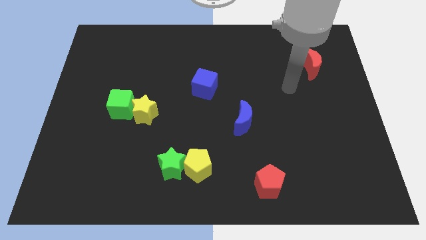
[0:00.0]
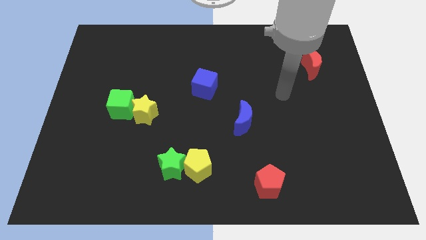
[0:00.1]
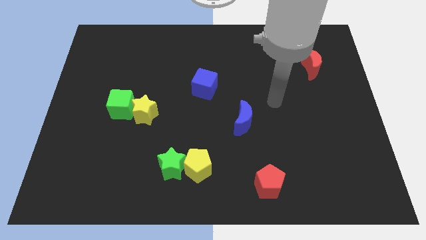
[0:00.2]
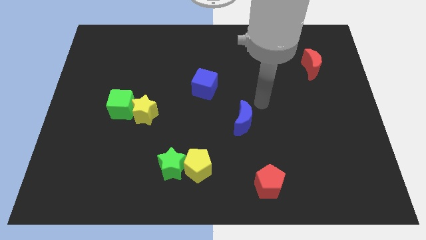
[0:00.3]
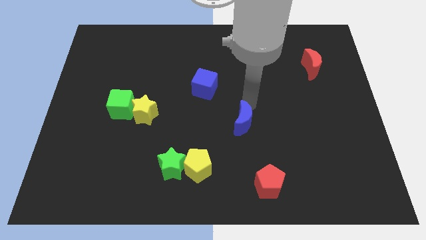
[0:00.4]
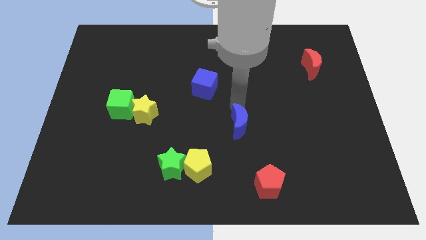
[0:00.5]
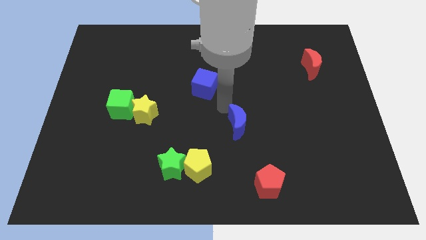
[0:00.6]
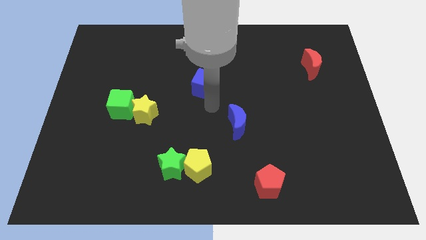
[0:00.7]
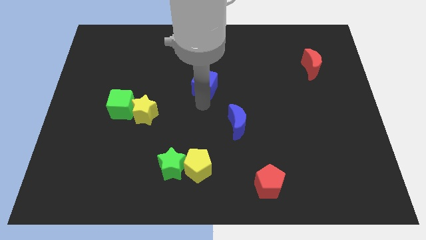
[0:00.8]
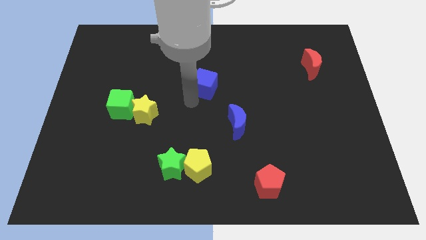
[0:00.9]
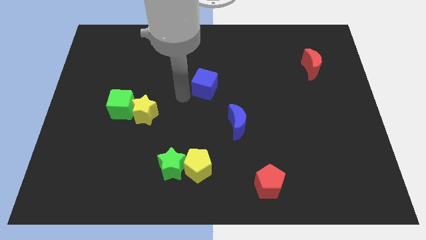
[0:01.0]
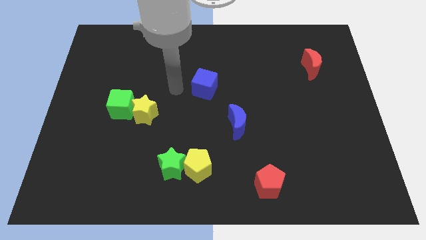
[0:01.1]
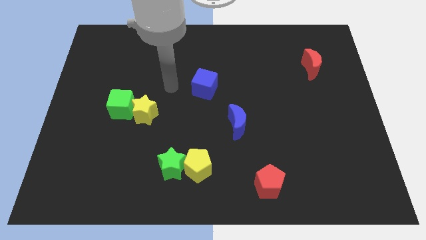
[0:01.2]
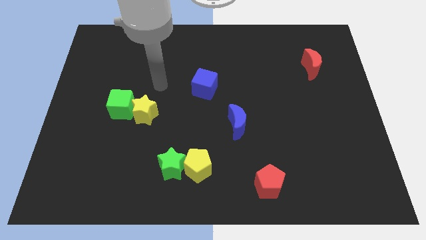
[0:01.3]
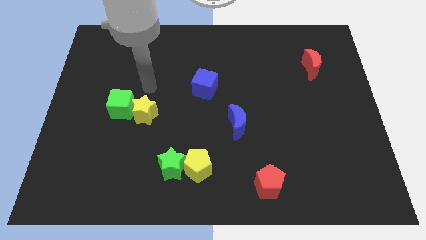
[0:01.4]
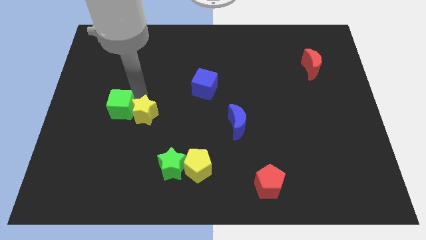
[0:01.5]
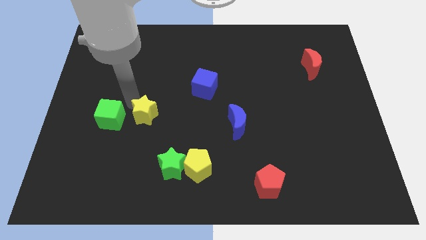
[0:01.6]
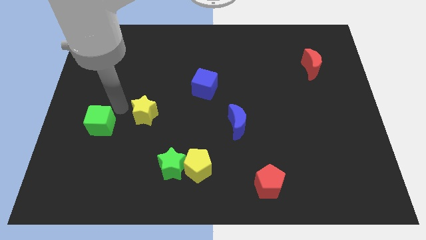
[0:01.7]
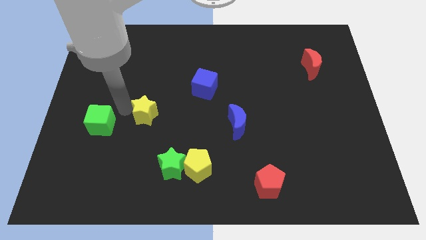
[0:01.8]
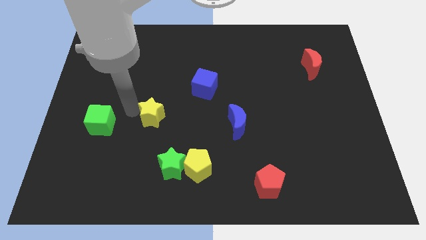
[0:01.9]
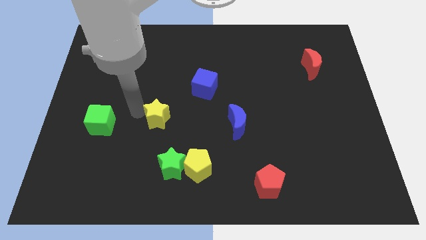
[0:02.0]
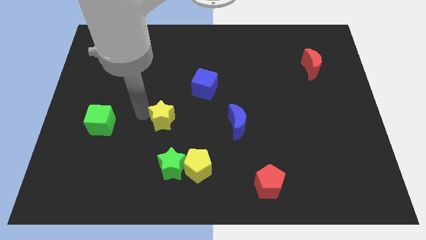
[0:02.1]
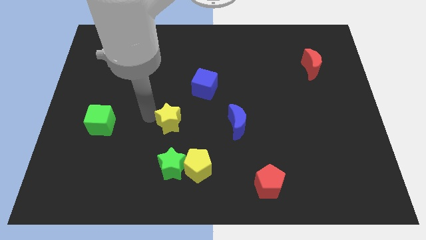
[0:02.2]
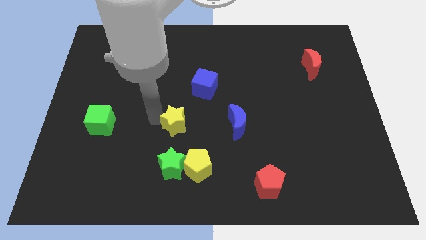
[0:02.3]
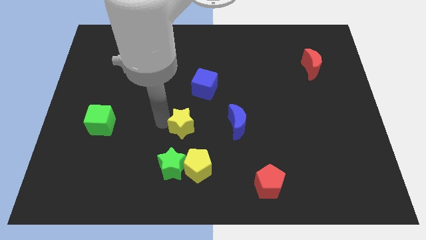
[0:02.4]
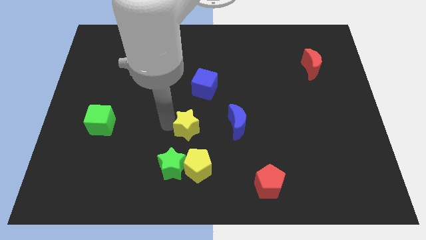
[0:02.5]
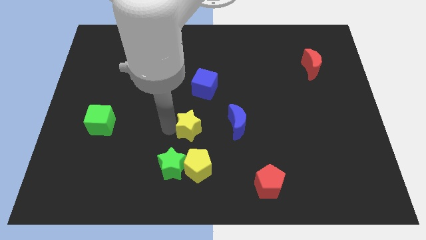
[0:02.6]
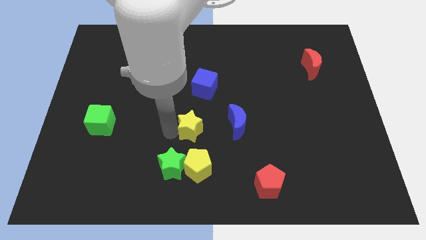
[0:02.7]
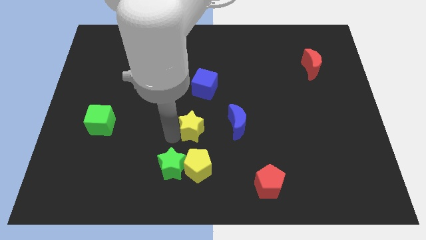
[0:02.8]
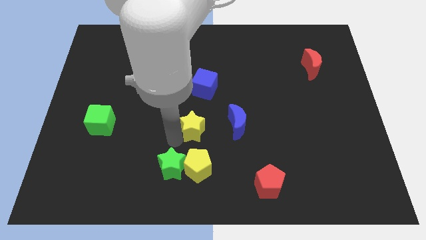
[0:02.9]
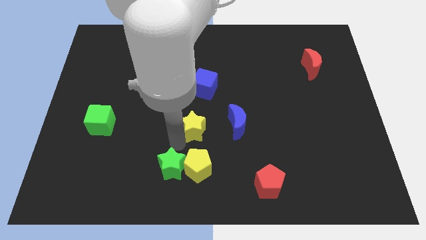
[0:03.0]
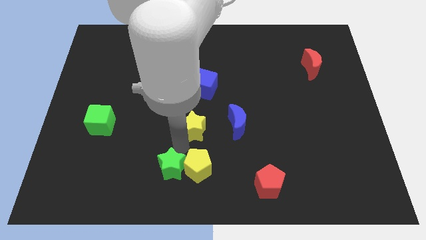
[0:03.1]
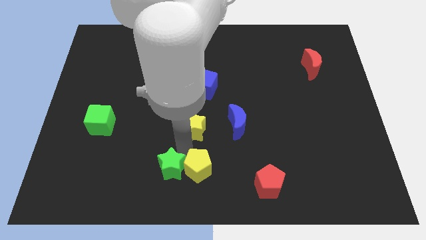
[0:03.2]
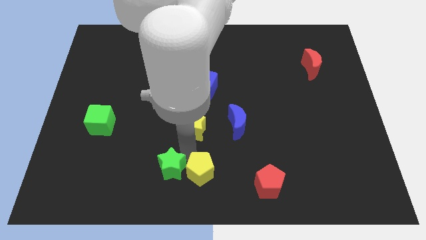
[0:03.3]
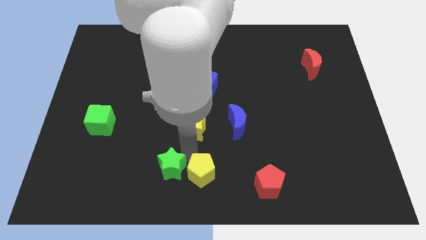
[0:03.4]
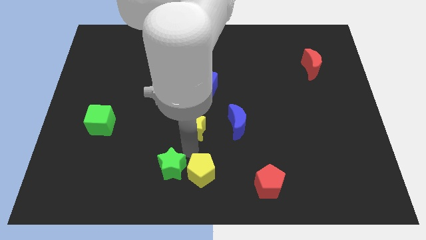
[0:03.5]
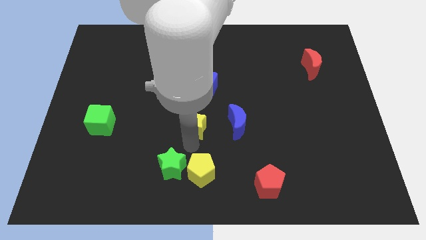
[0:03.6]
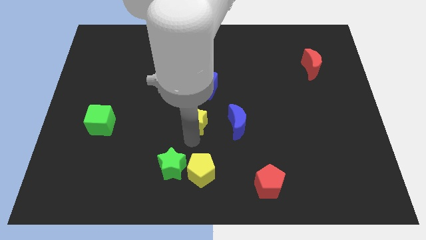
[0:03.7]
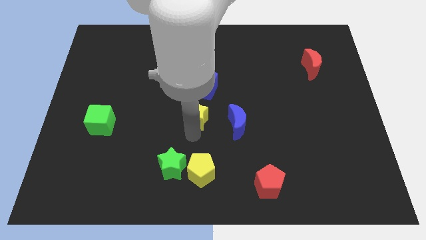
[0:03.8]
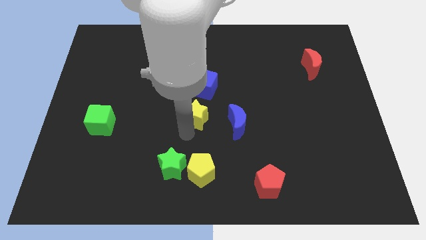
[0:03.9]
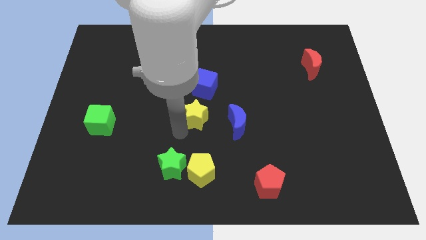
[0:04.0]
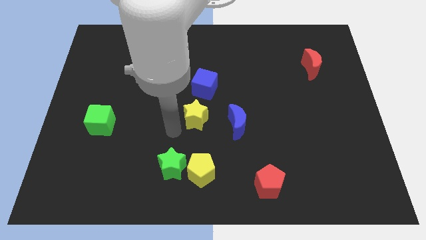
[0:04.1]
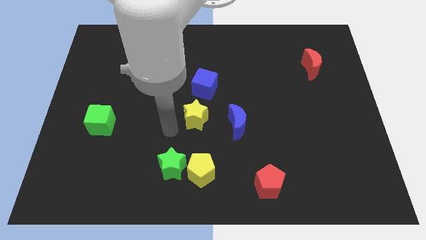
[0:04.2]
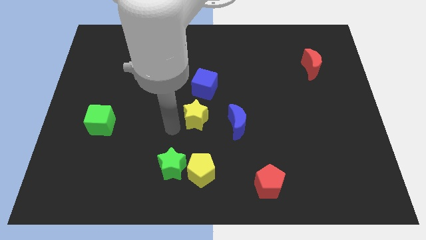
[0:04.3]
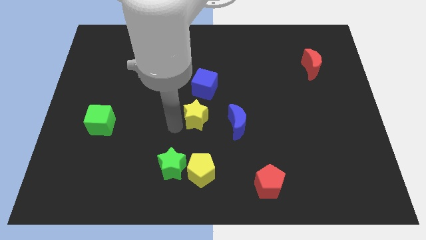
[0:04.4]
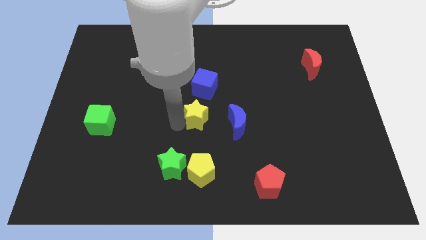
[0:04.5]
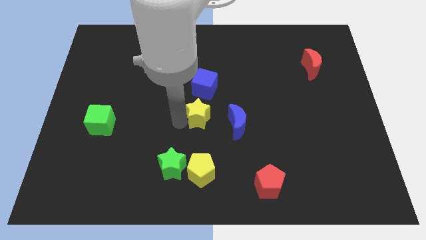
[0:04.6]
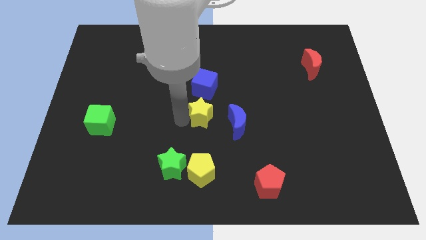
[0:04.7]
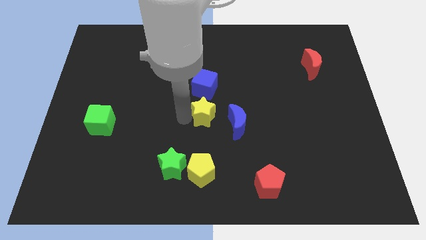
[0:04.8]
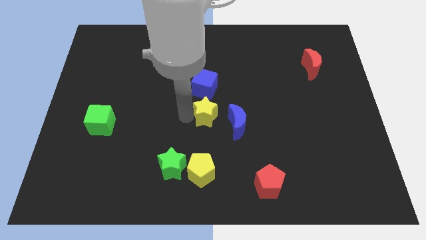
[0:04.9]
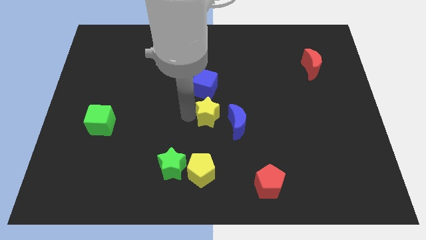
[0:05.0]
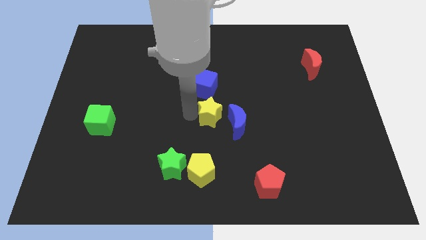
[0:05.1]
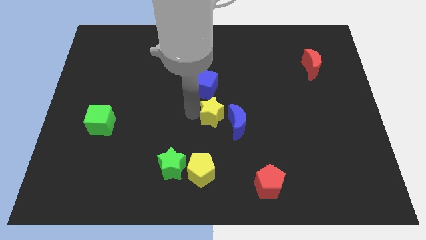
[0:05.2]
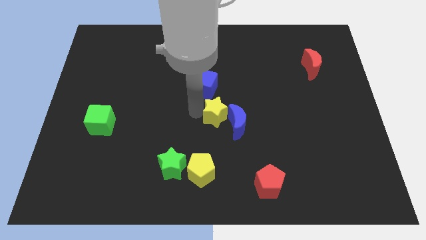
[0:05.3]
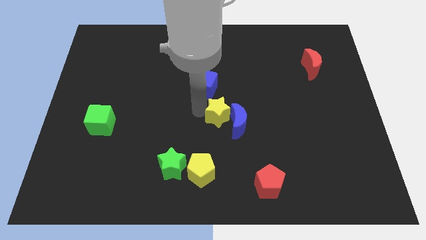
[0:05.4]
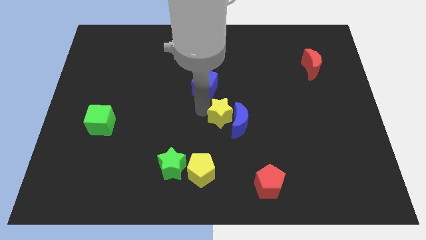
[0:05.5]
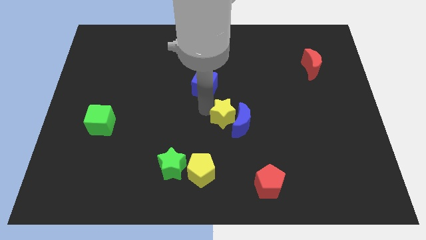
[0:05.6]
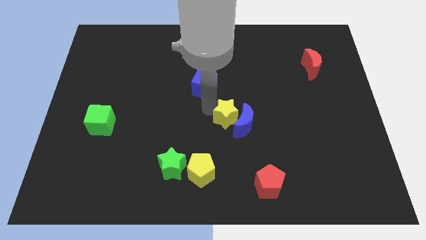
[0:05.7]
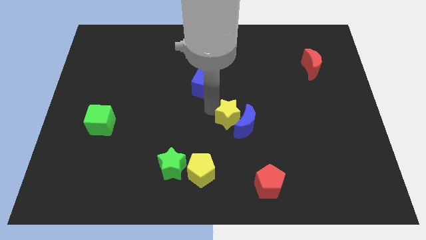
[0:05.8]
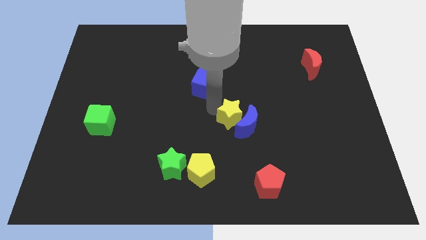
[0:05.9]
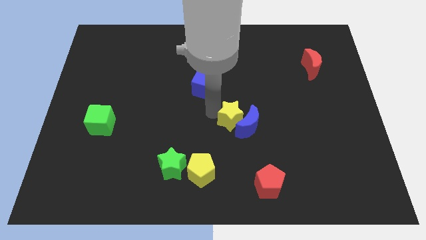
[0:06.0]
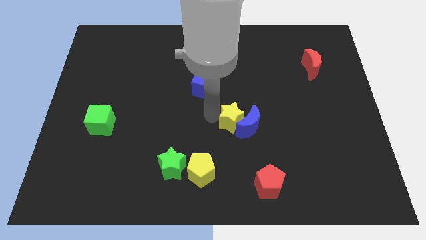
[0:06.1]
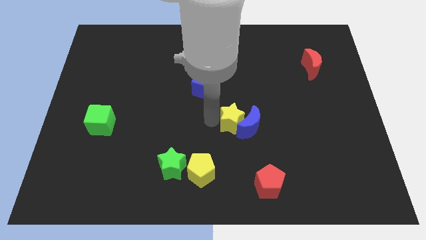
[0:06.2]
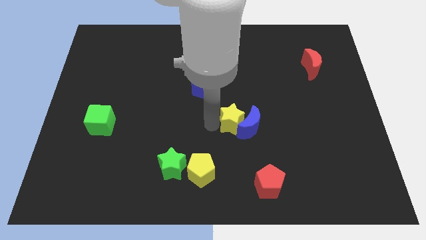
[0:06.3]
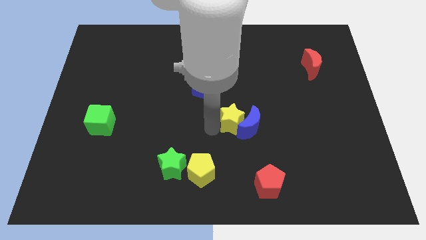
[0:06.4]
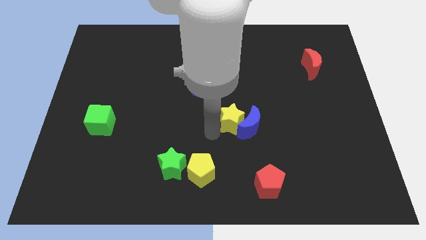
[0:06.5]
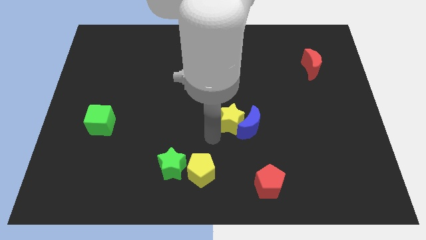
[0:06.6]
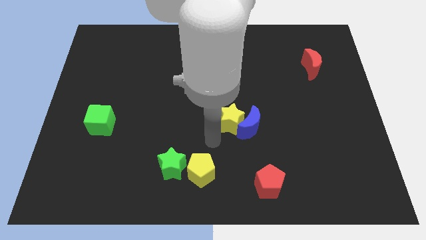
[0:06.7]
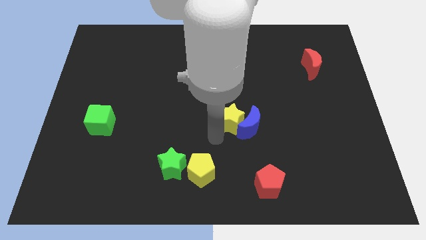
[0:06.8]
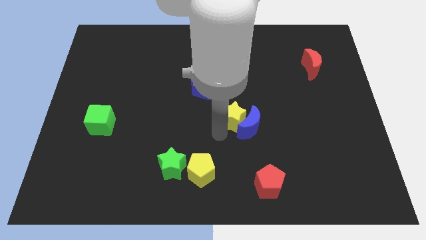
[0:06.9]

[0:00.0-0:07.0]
slide the yellow star right

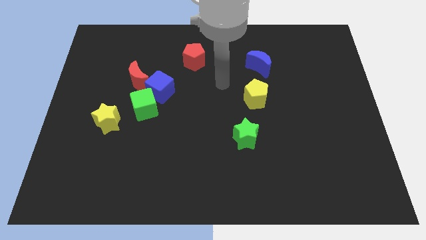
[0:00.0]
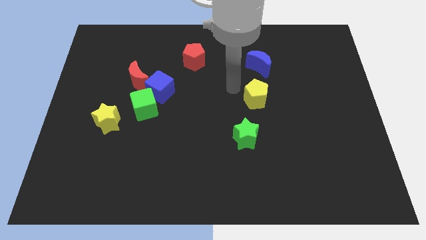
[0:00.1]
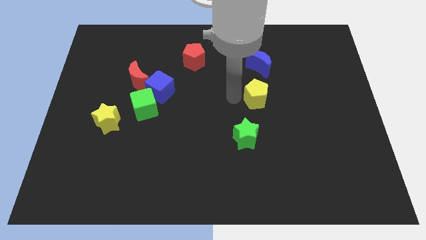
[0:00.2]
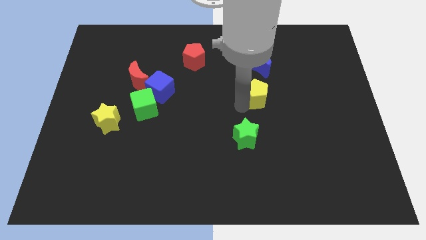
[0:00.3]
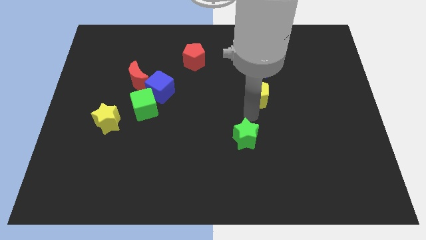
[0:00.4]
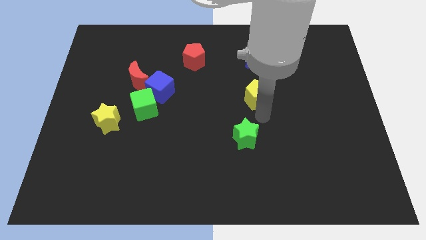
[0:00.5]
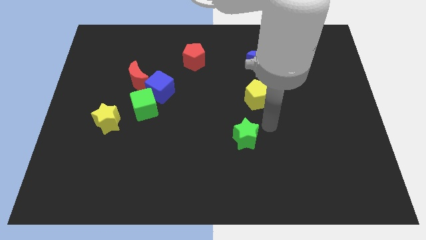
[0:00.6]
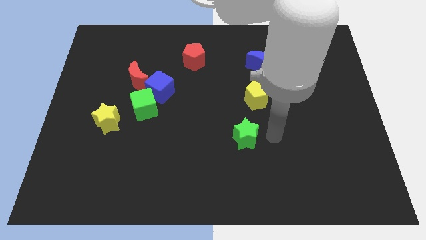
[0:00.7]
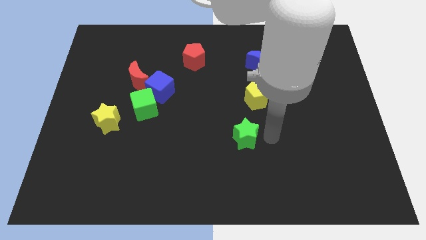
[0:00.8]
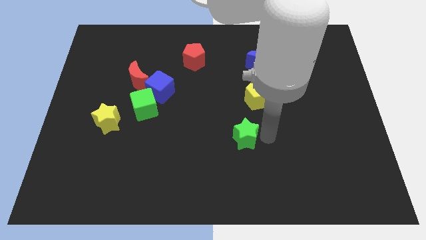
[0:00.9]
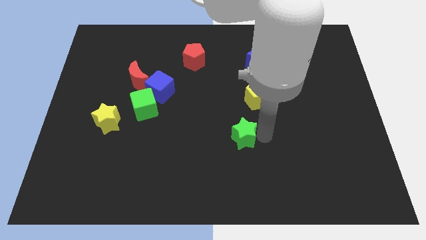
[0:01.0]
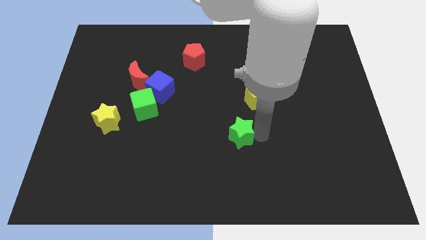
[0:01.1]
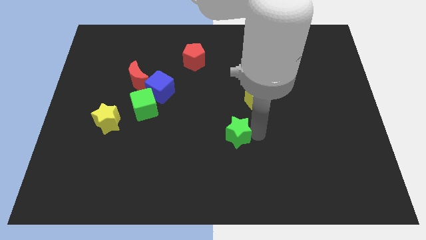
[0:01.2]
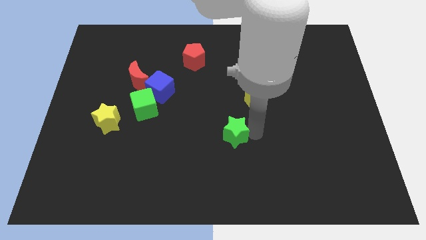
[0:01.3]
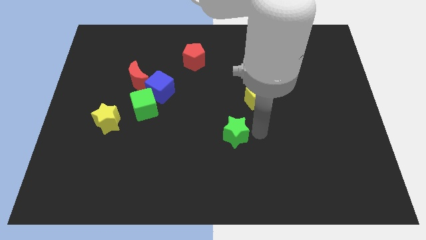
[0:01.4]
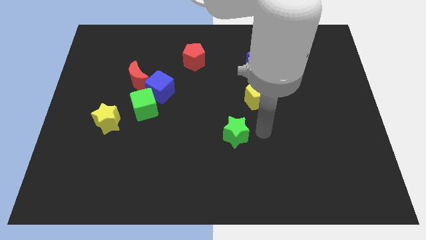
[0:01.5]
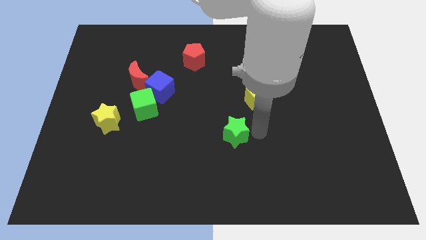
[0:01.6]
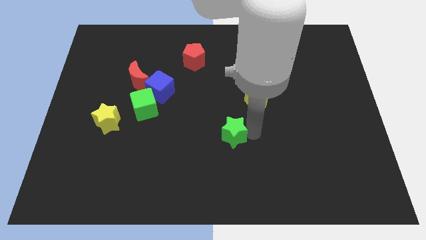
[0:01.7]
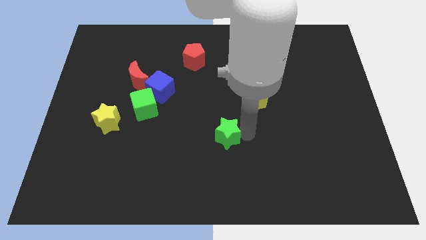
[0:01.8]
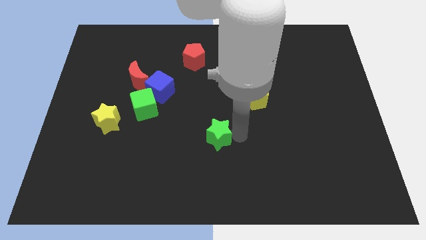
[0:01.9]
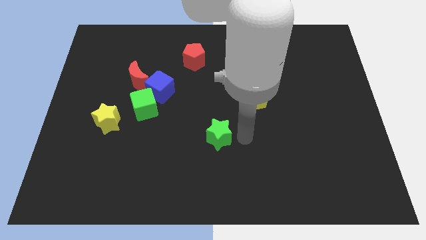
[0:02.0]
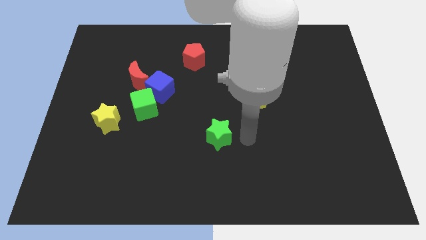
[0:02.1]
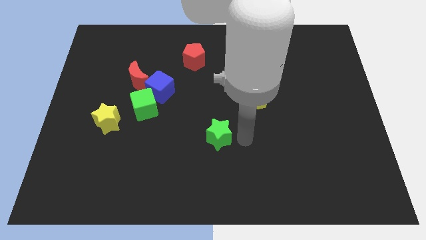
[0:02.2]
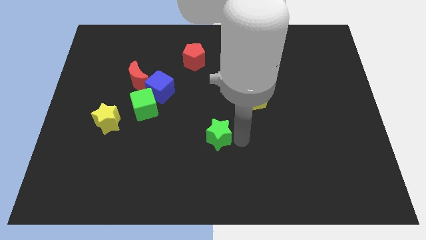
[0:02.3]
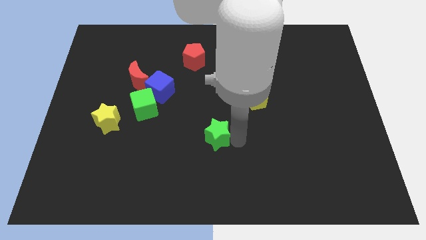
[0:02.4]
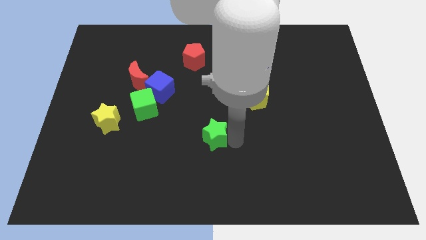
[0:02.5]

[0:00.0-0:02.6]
slightly push the green star left
